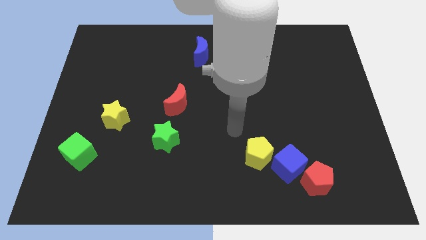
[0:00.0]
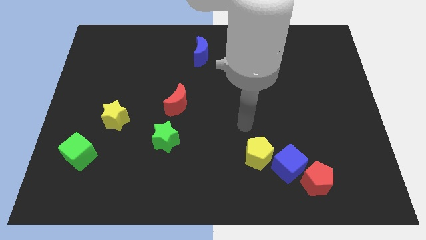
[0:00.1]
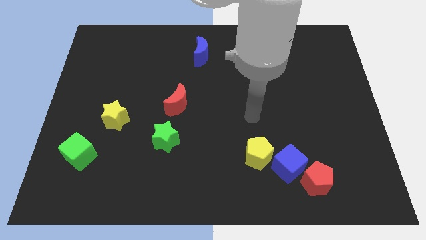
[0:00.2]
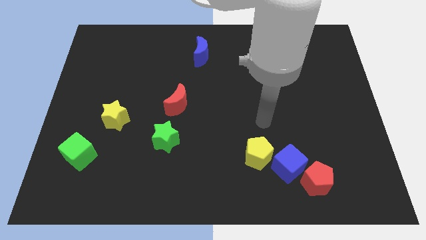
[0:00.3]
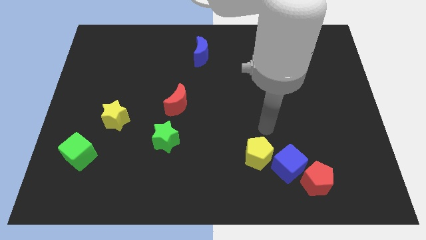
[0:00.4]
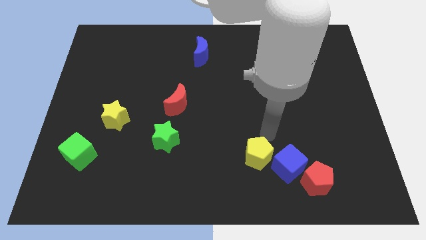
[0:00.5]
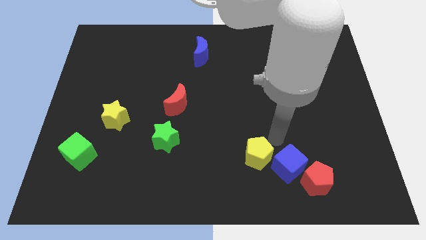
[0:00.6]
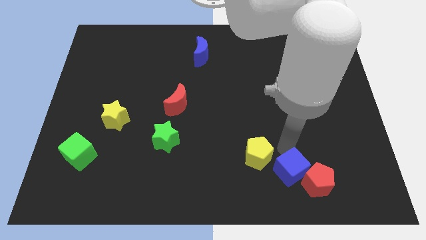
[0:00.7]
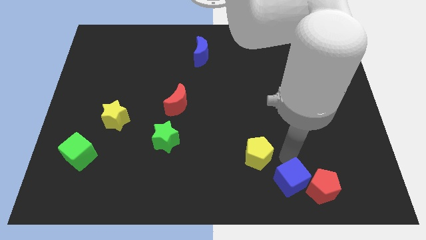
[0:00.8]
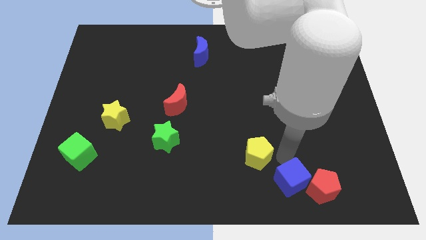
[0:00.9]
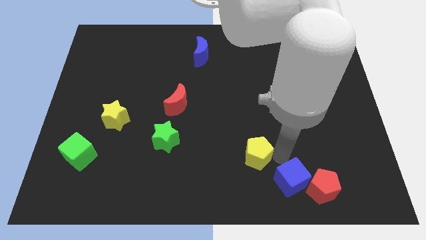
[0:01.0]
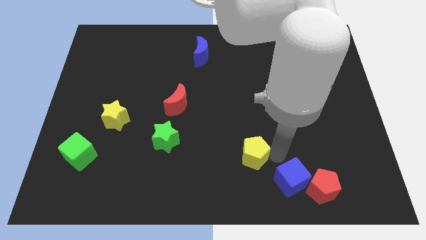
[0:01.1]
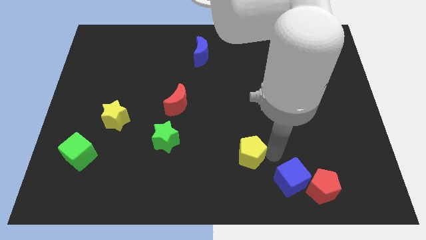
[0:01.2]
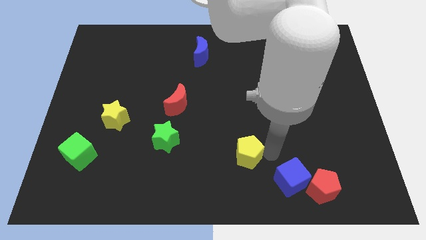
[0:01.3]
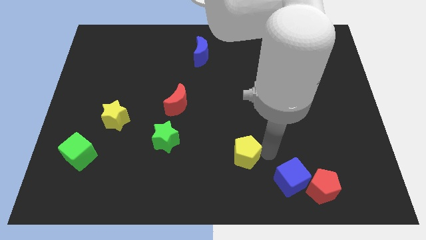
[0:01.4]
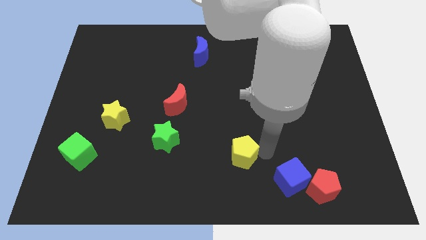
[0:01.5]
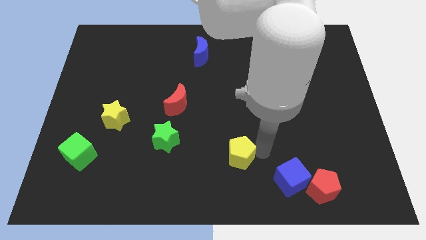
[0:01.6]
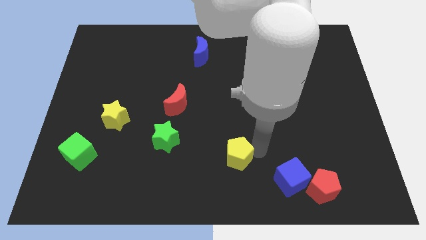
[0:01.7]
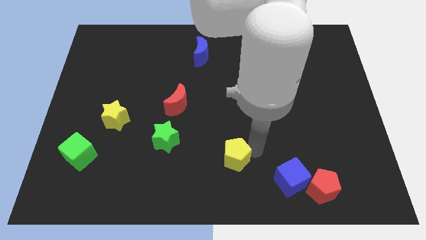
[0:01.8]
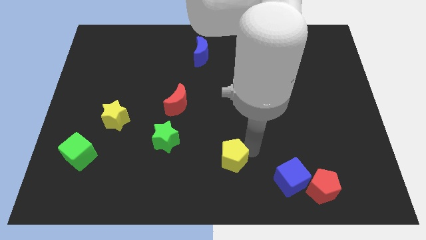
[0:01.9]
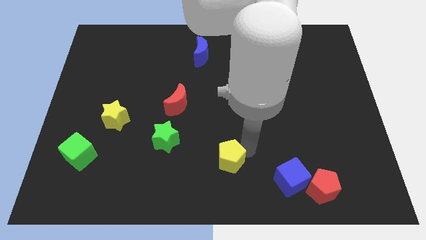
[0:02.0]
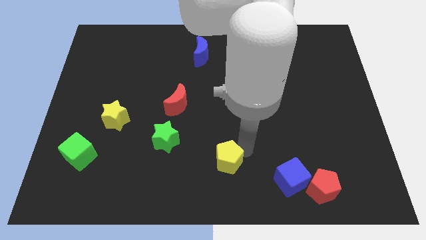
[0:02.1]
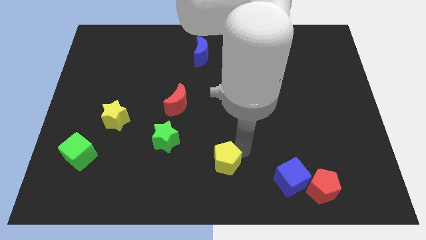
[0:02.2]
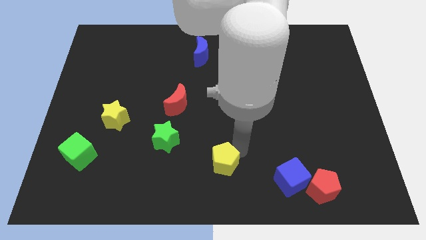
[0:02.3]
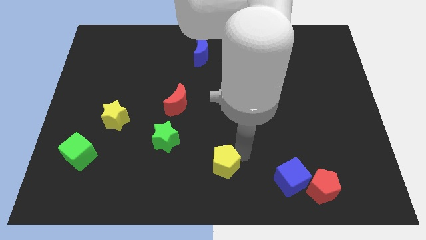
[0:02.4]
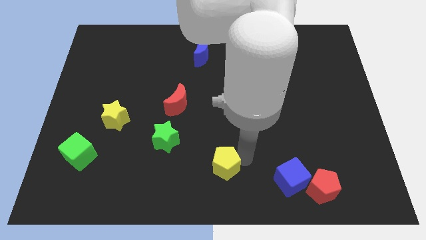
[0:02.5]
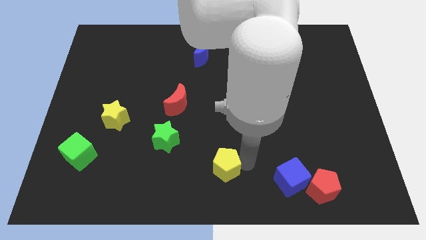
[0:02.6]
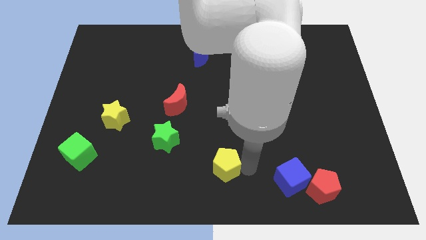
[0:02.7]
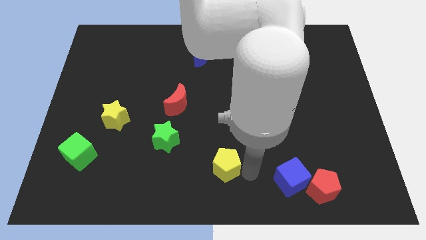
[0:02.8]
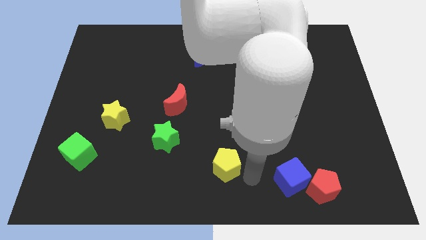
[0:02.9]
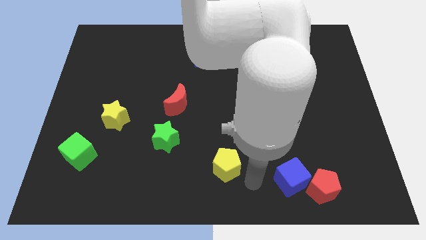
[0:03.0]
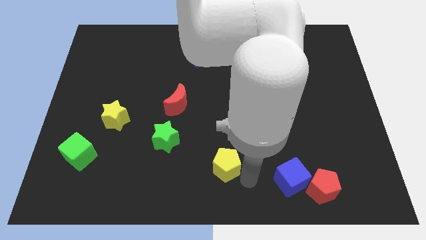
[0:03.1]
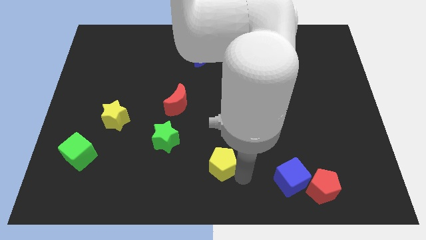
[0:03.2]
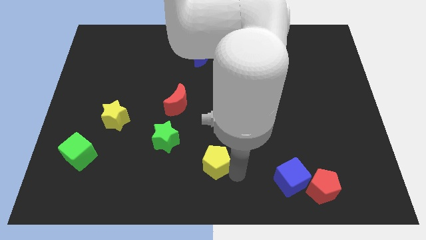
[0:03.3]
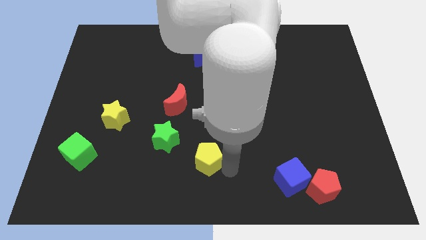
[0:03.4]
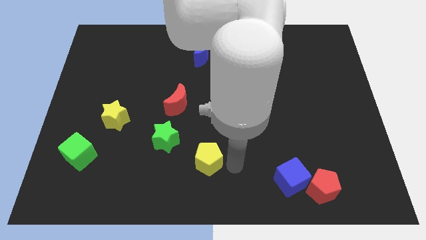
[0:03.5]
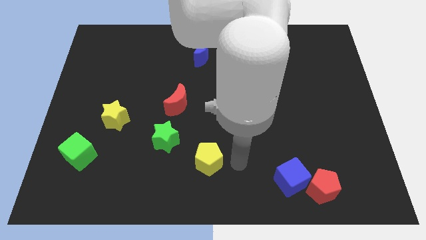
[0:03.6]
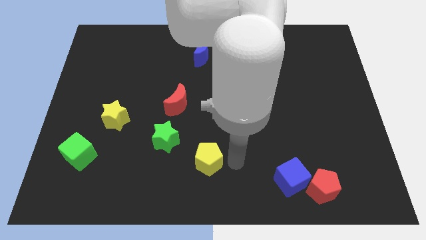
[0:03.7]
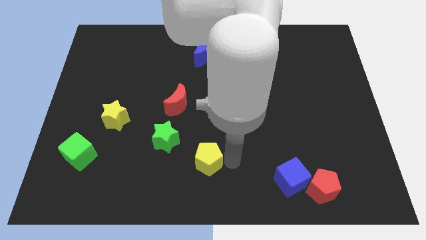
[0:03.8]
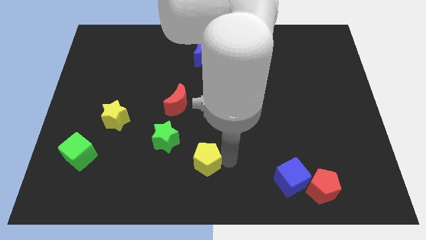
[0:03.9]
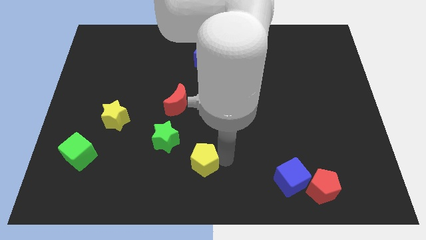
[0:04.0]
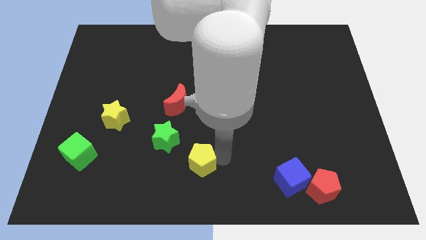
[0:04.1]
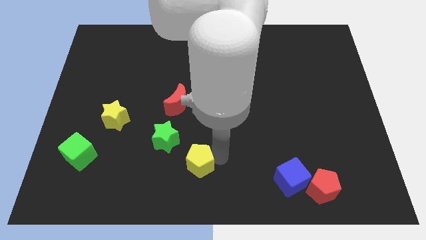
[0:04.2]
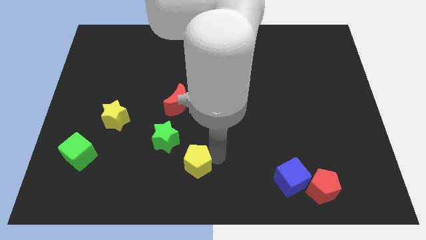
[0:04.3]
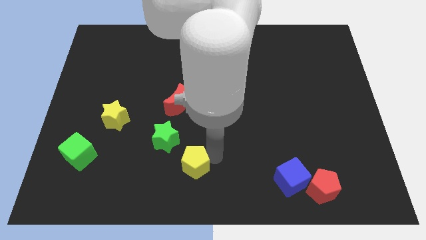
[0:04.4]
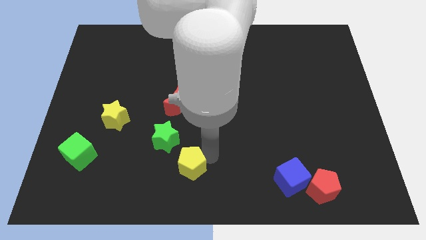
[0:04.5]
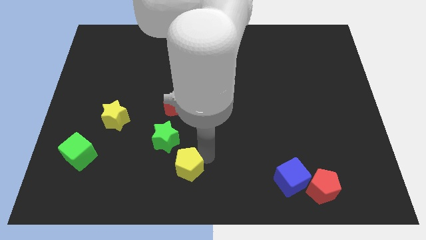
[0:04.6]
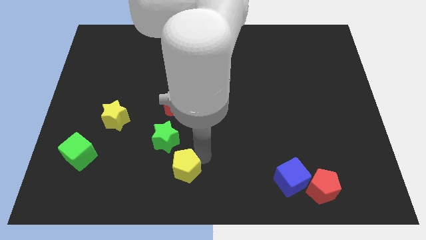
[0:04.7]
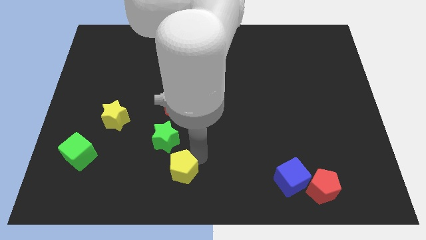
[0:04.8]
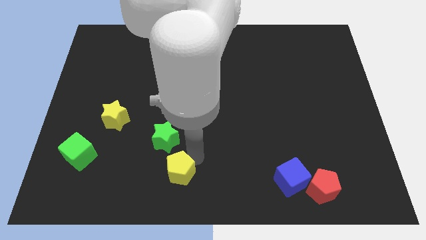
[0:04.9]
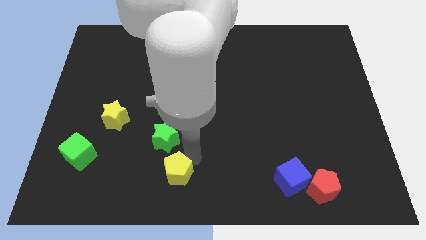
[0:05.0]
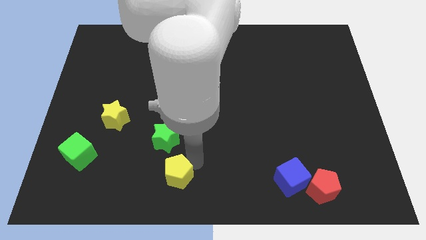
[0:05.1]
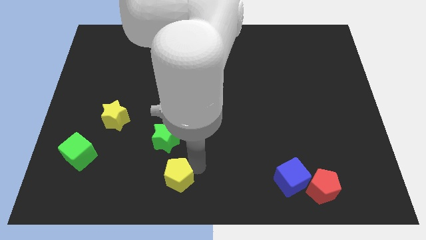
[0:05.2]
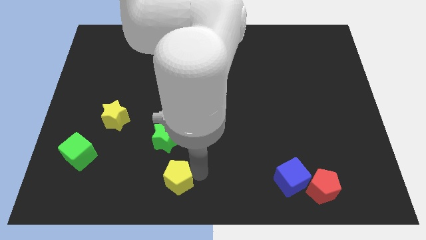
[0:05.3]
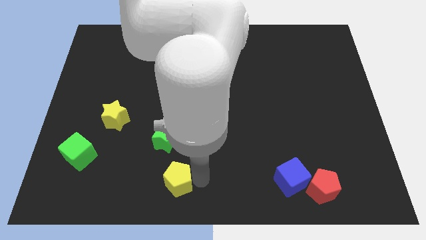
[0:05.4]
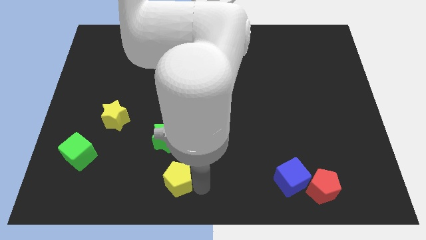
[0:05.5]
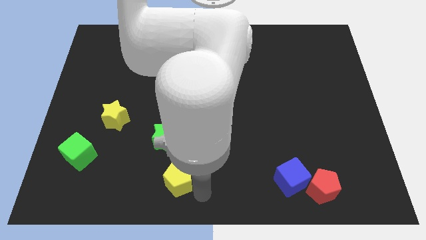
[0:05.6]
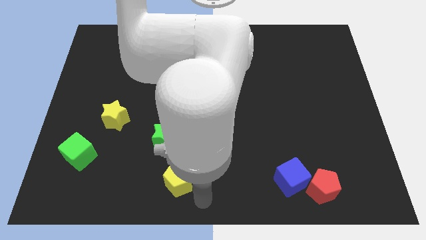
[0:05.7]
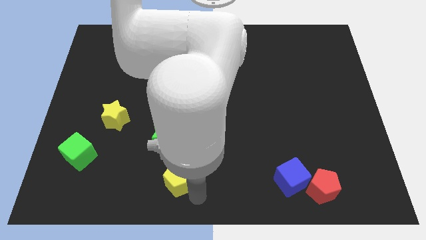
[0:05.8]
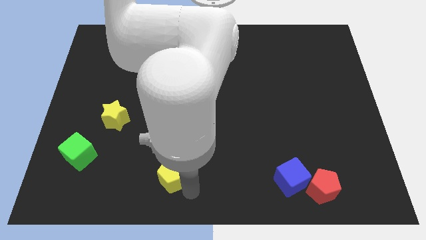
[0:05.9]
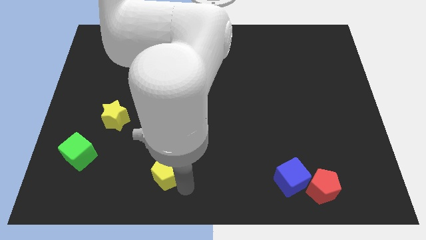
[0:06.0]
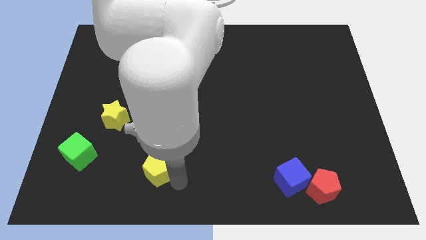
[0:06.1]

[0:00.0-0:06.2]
move the yellow pentagon to the bottom left of the green star

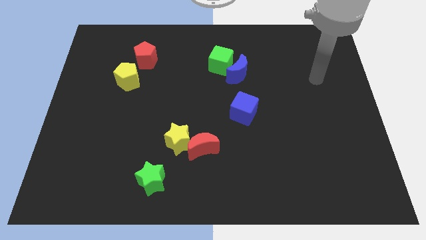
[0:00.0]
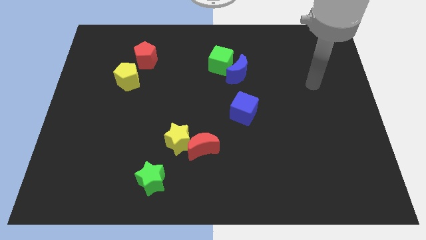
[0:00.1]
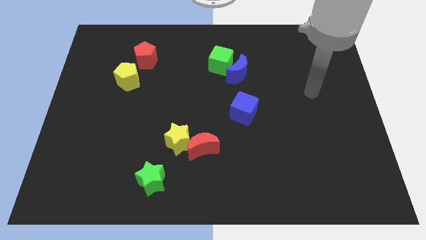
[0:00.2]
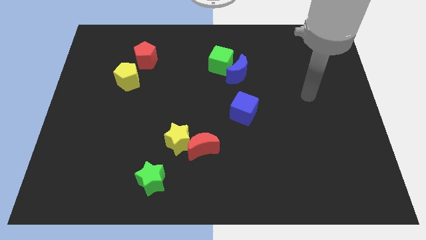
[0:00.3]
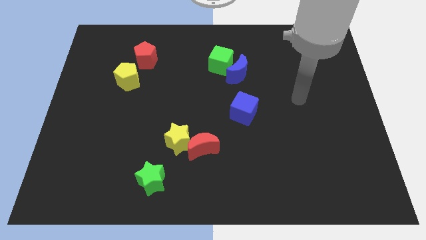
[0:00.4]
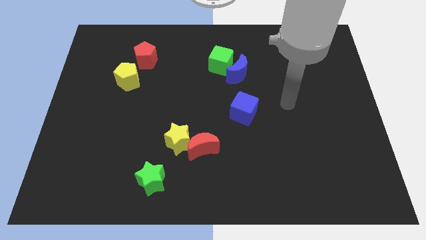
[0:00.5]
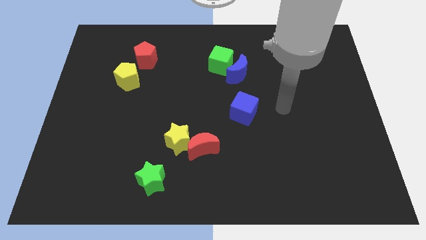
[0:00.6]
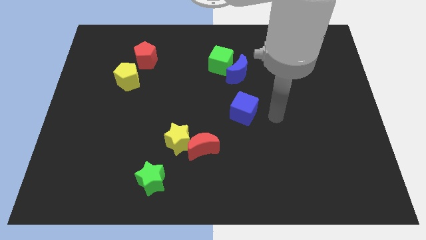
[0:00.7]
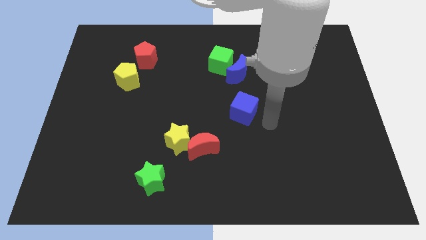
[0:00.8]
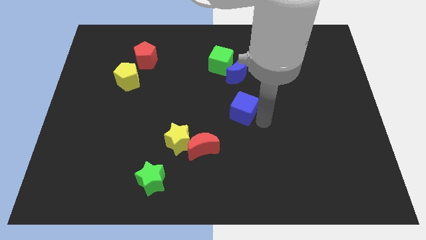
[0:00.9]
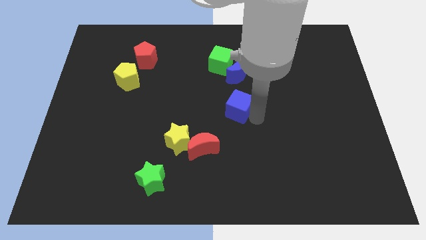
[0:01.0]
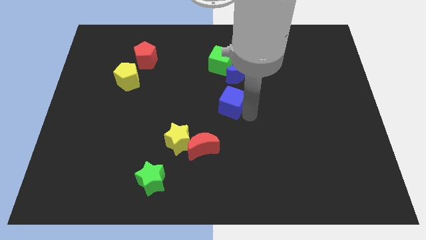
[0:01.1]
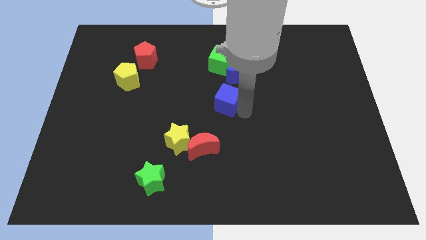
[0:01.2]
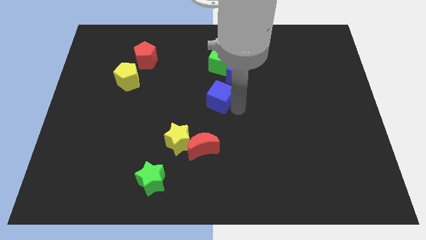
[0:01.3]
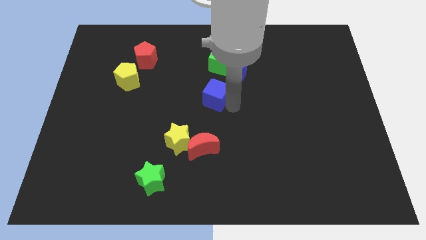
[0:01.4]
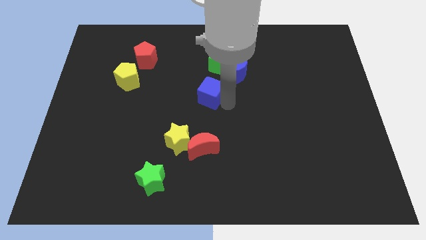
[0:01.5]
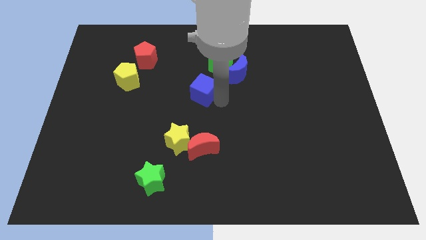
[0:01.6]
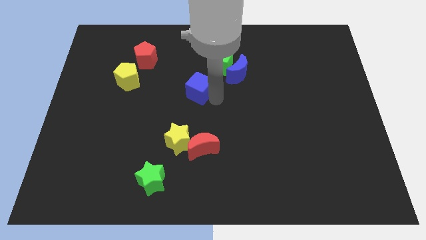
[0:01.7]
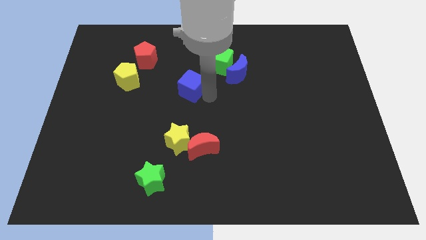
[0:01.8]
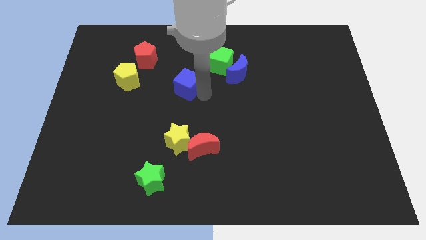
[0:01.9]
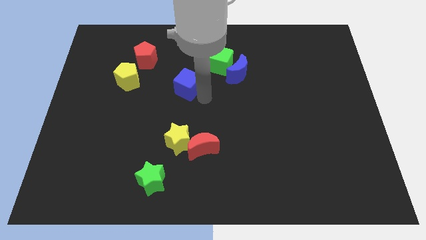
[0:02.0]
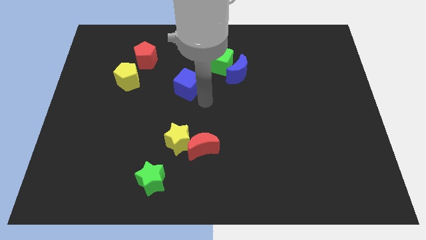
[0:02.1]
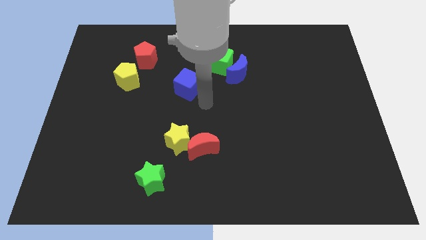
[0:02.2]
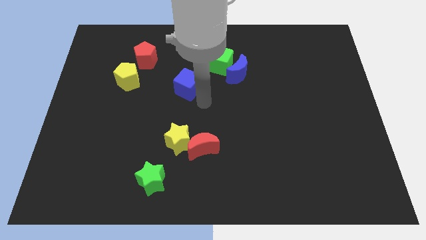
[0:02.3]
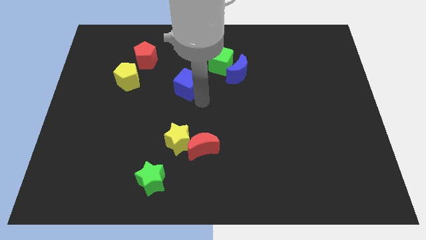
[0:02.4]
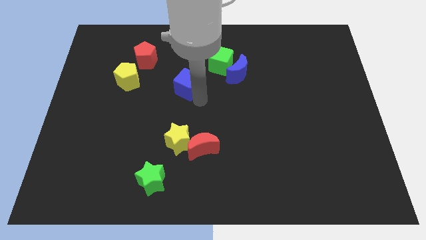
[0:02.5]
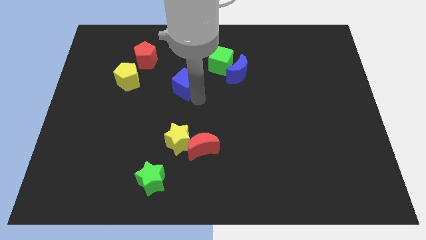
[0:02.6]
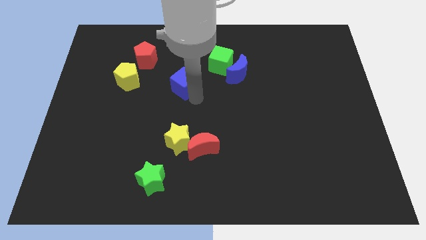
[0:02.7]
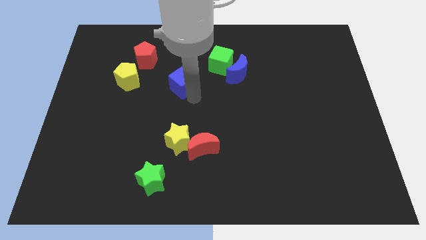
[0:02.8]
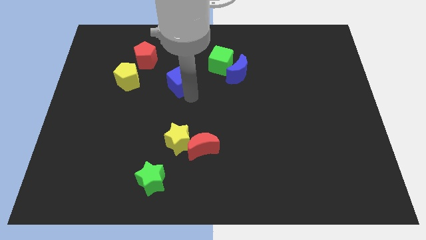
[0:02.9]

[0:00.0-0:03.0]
put the blue cube diagonally down and to the right of the red pentagon
